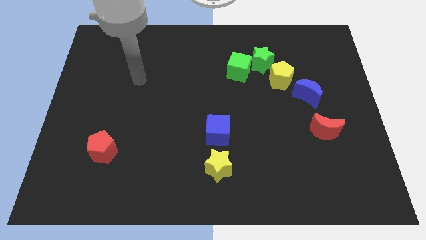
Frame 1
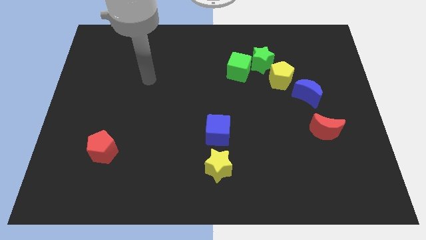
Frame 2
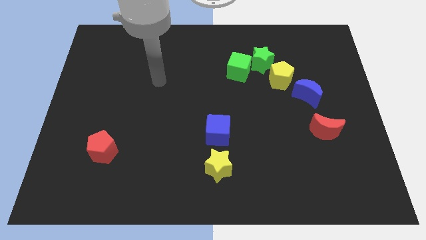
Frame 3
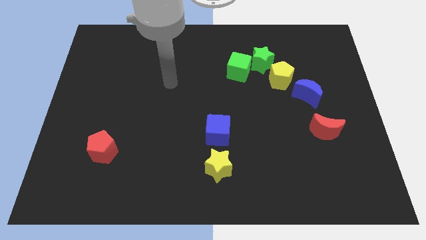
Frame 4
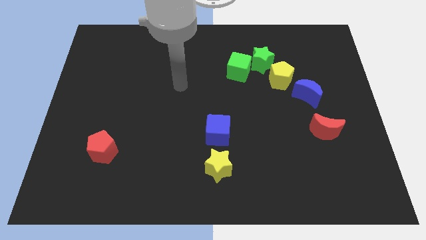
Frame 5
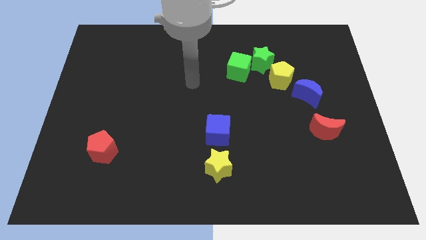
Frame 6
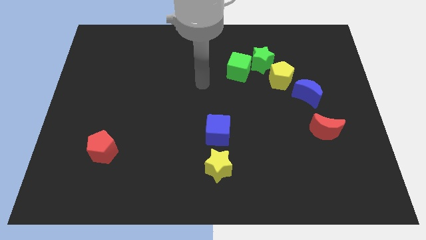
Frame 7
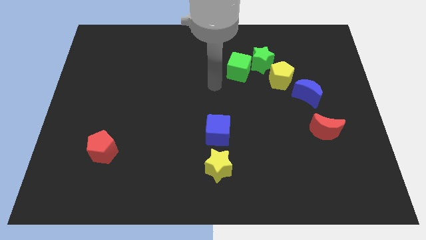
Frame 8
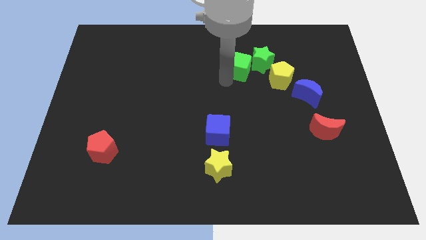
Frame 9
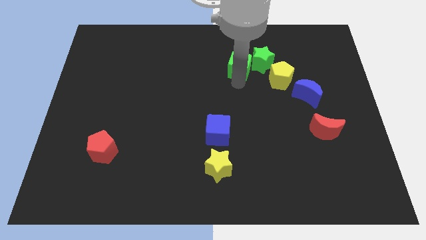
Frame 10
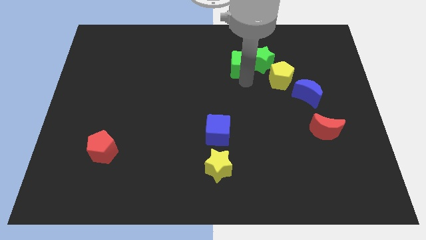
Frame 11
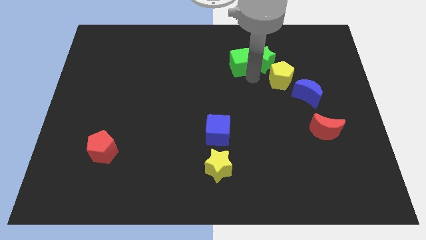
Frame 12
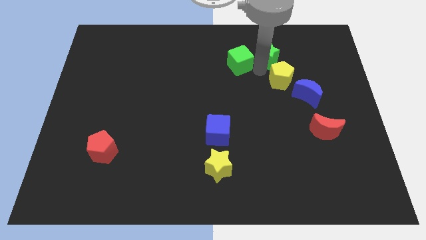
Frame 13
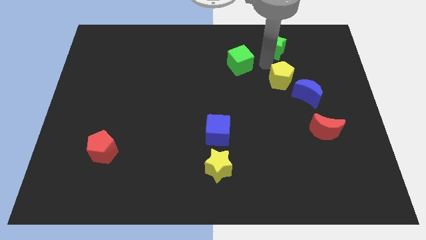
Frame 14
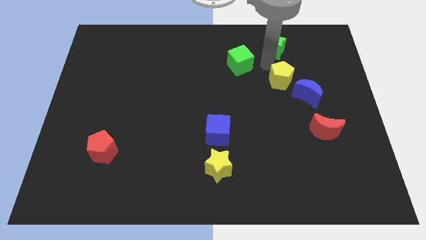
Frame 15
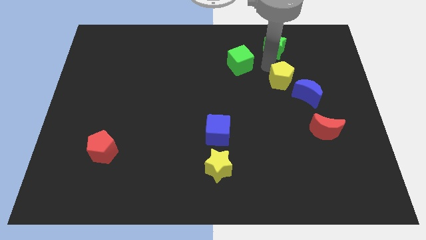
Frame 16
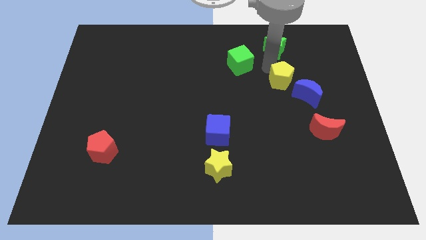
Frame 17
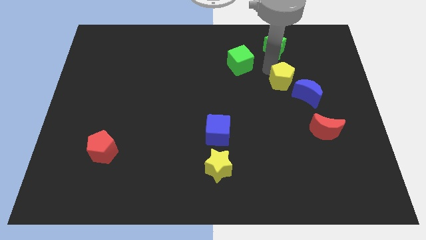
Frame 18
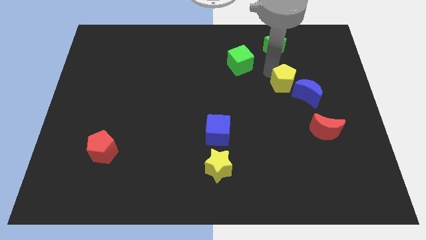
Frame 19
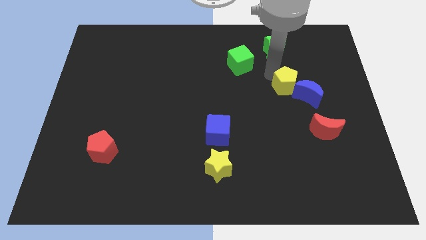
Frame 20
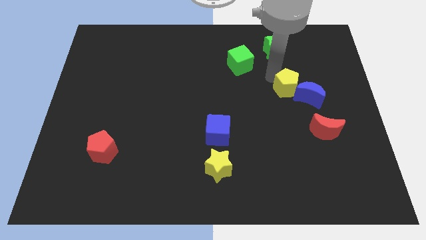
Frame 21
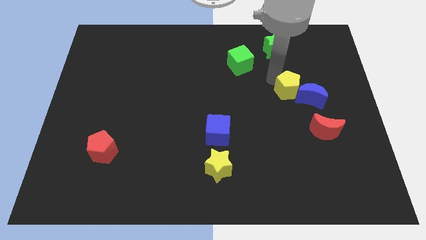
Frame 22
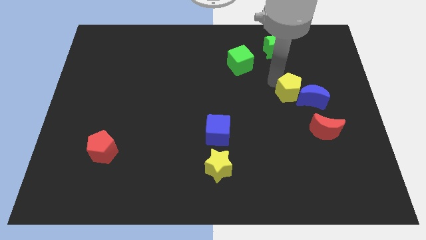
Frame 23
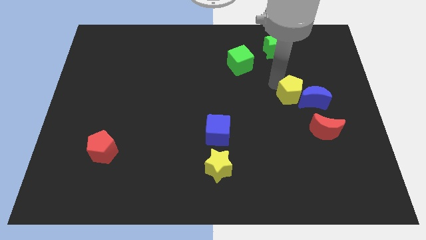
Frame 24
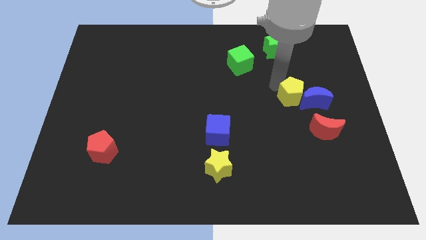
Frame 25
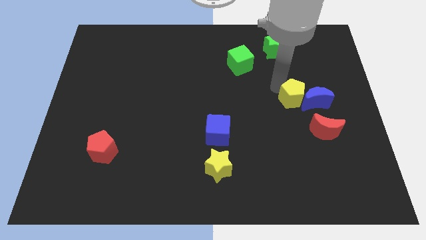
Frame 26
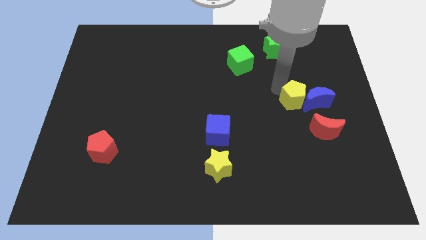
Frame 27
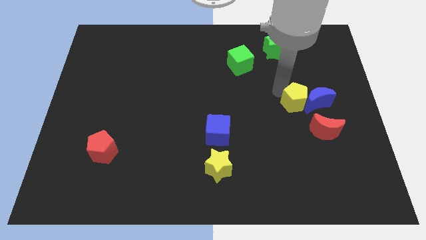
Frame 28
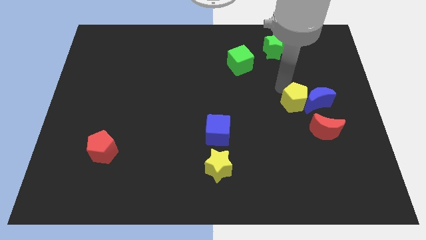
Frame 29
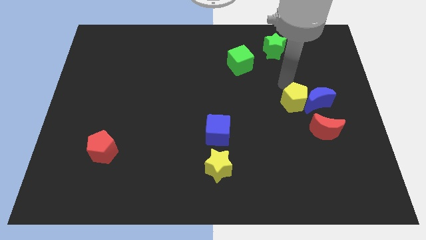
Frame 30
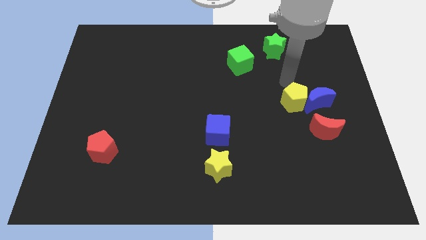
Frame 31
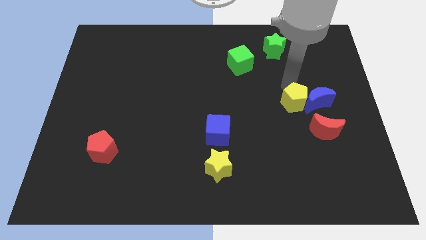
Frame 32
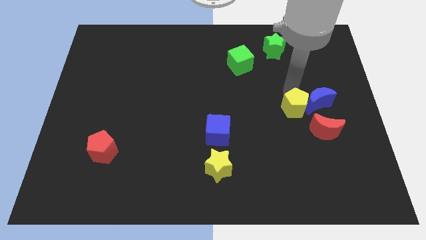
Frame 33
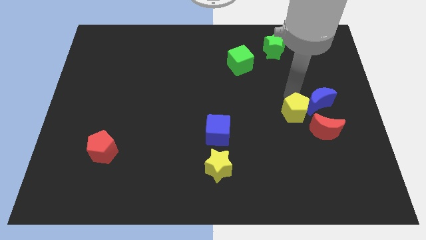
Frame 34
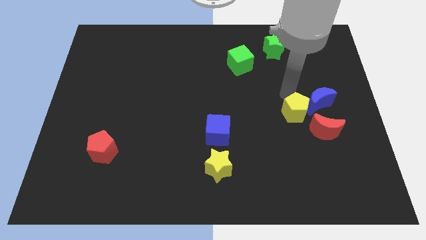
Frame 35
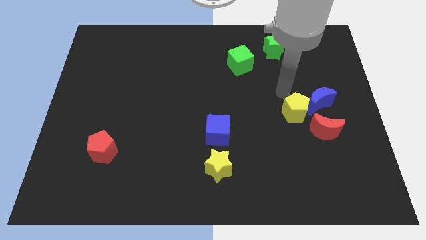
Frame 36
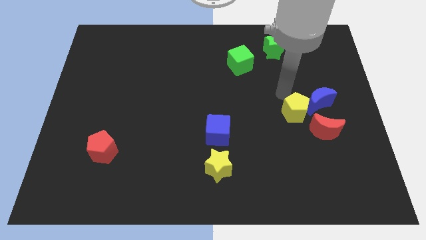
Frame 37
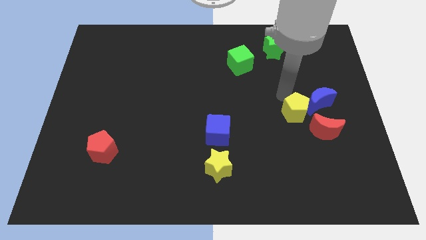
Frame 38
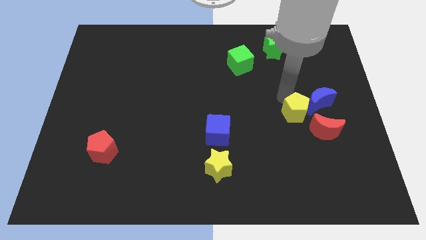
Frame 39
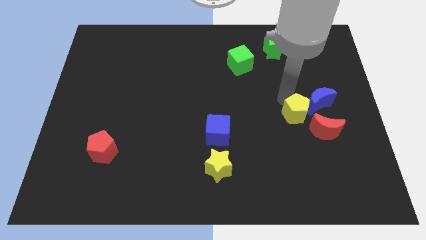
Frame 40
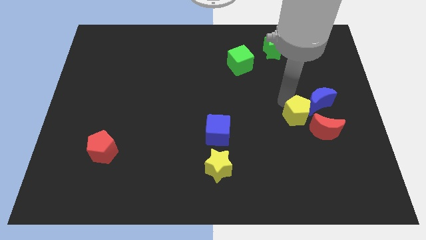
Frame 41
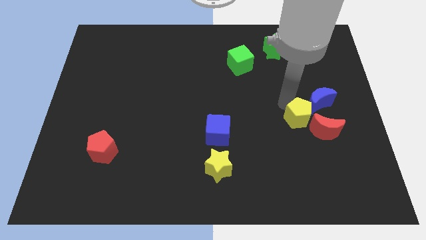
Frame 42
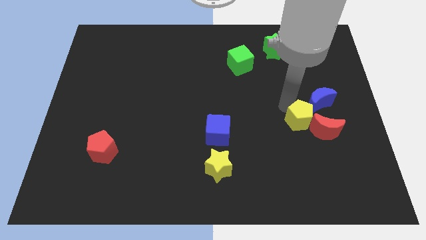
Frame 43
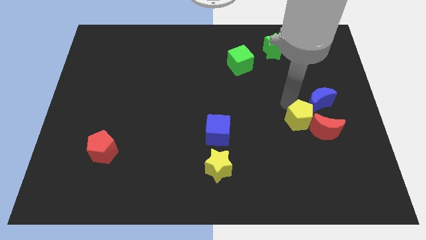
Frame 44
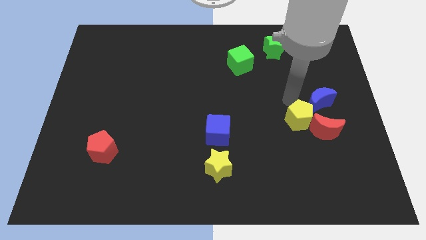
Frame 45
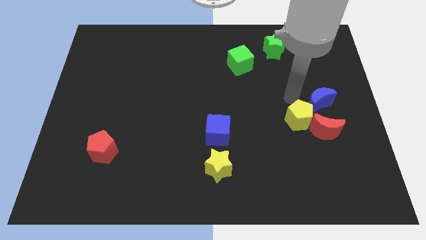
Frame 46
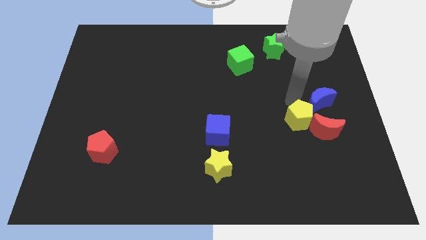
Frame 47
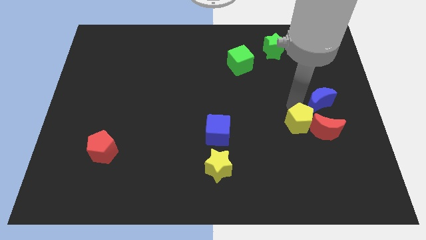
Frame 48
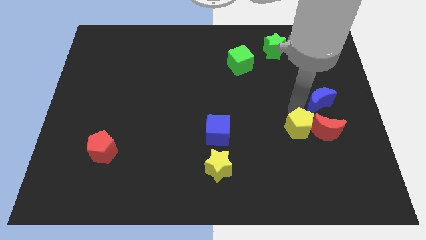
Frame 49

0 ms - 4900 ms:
slide the yellow pentagon to the bottom left of the red moon

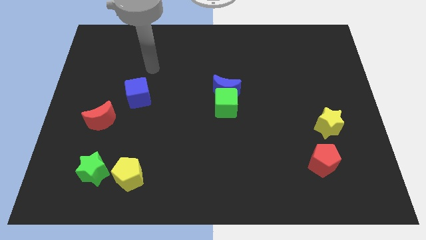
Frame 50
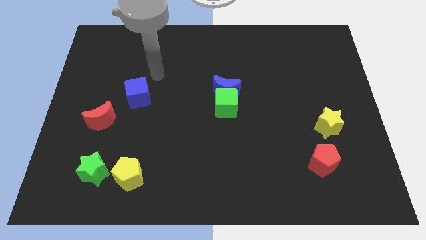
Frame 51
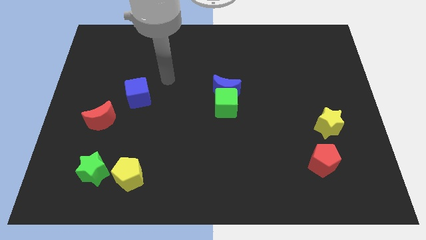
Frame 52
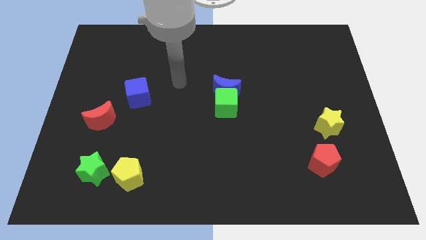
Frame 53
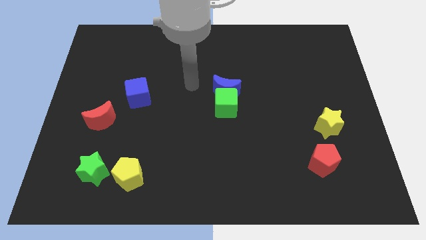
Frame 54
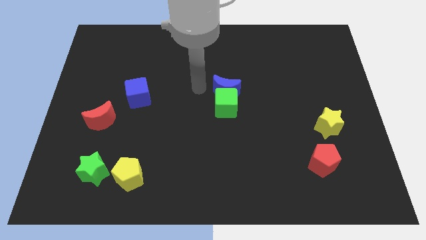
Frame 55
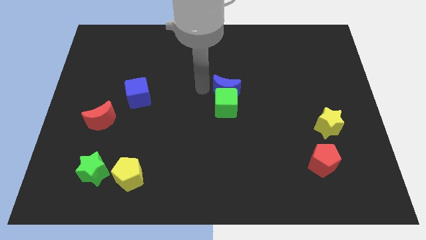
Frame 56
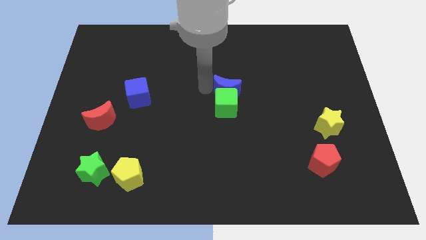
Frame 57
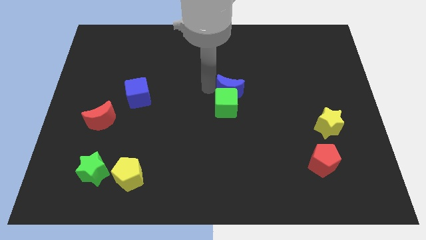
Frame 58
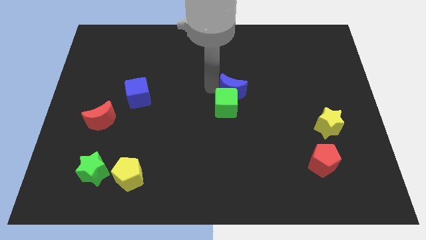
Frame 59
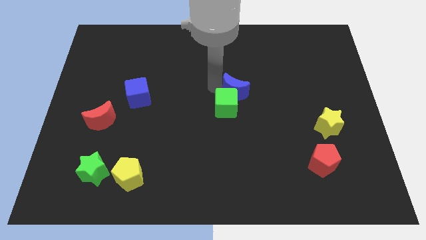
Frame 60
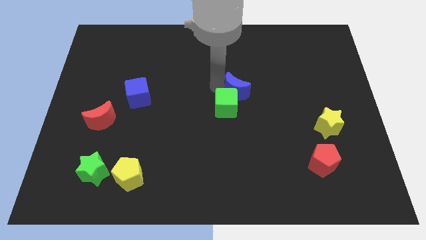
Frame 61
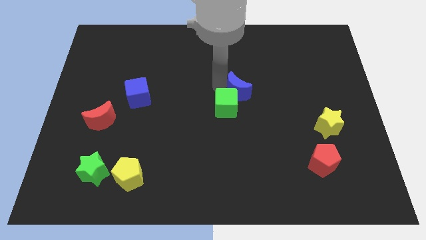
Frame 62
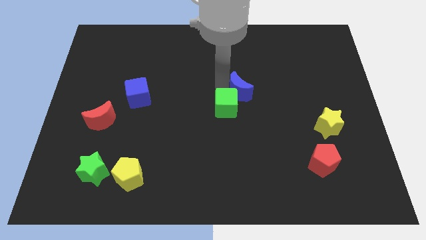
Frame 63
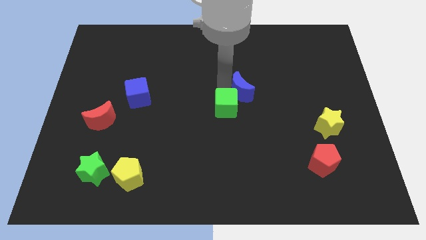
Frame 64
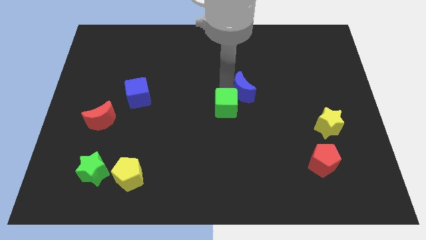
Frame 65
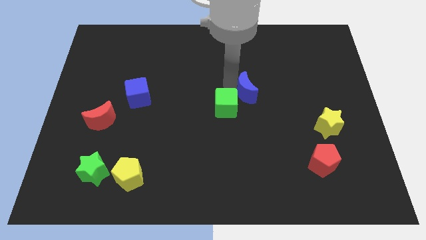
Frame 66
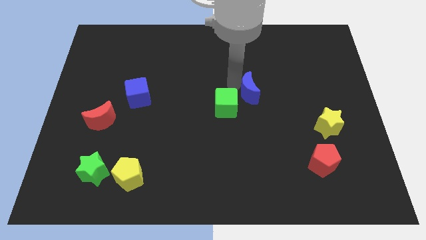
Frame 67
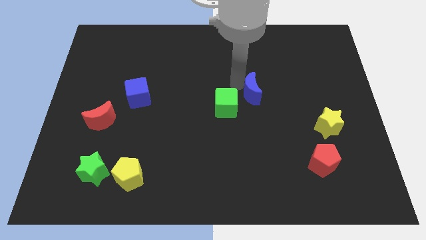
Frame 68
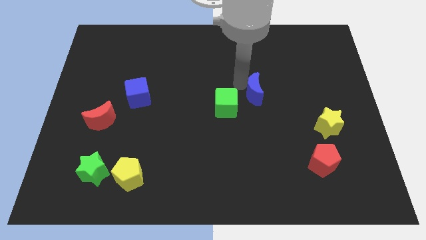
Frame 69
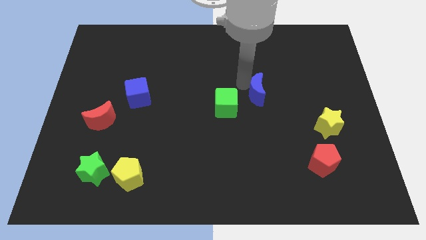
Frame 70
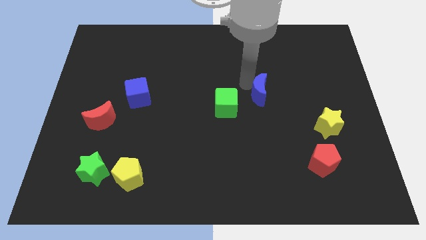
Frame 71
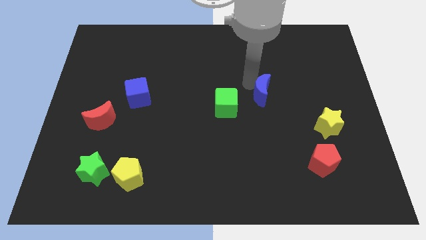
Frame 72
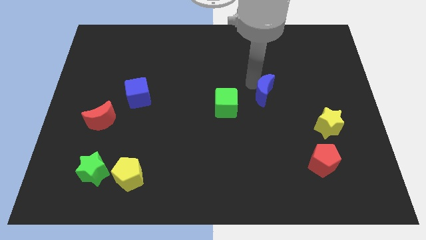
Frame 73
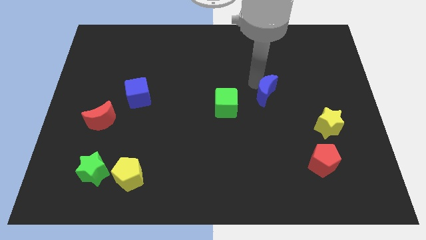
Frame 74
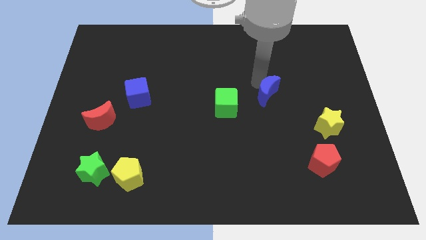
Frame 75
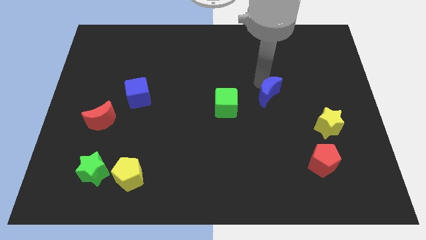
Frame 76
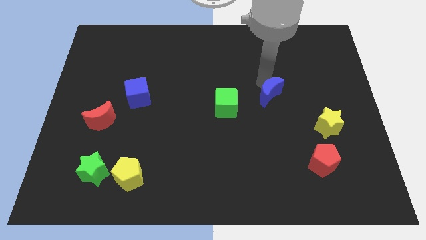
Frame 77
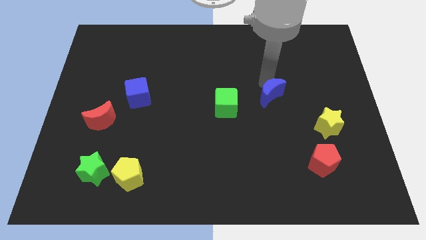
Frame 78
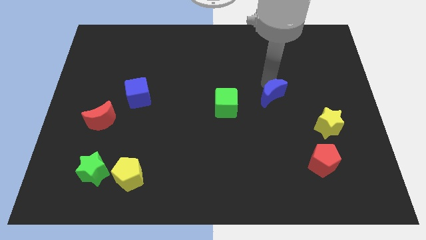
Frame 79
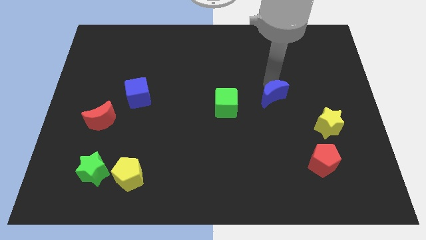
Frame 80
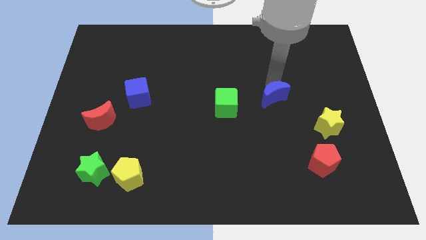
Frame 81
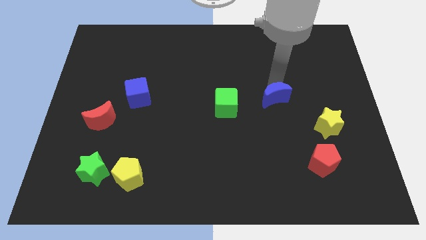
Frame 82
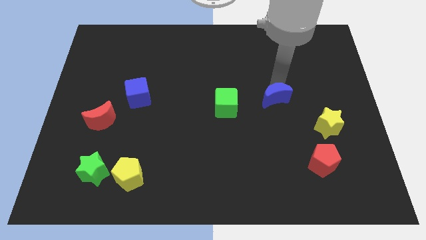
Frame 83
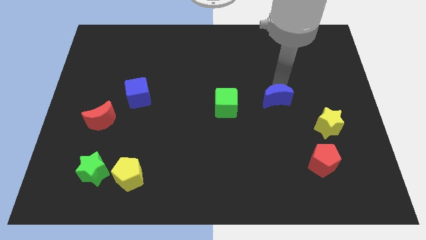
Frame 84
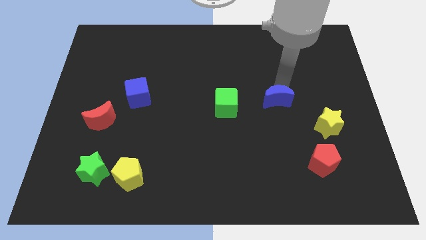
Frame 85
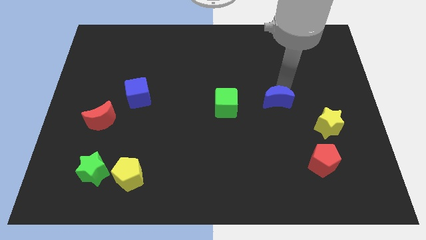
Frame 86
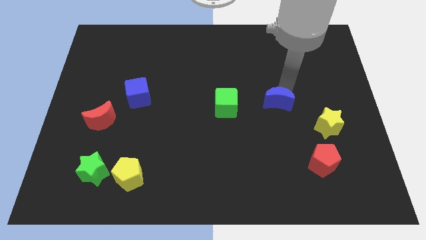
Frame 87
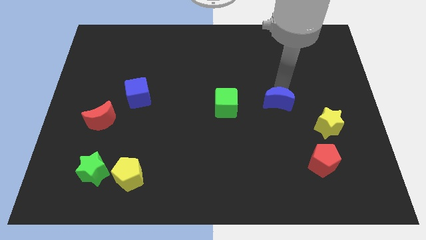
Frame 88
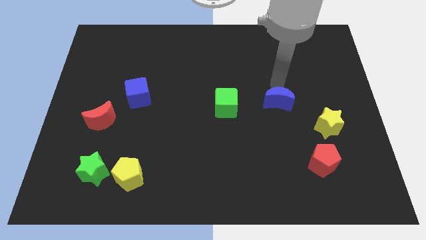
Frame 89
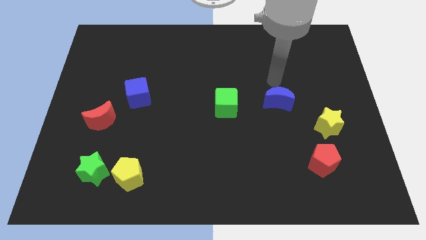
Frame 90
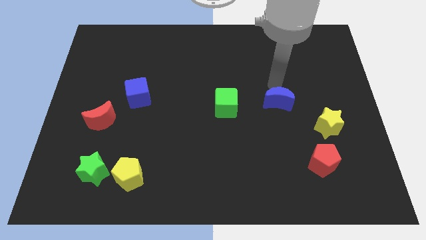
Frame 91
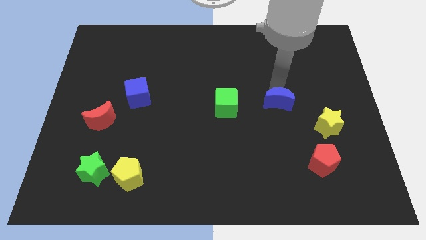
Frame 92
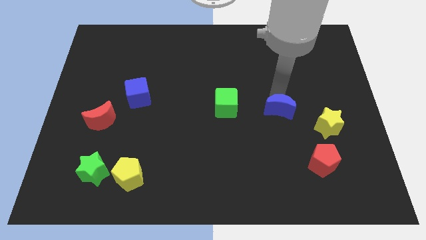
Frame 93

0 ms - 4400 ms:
slide the blue moon left of the yellow star
